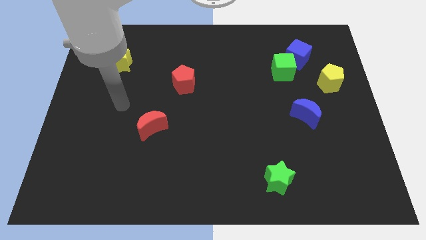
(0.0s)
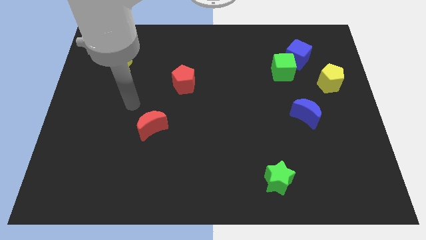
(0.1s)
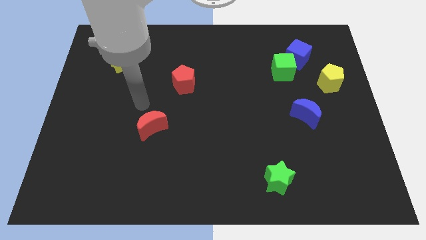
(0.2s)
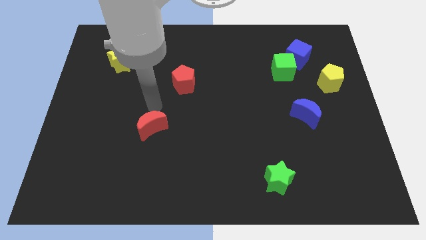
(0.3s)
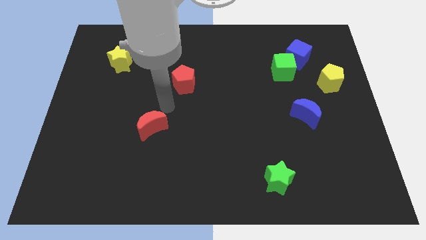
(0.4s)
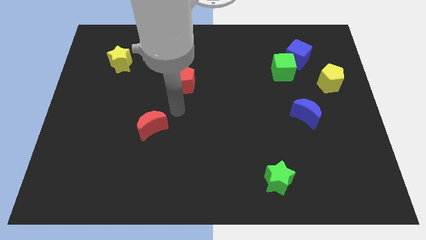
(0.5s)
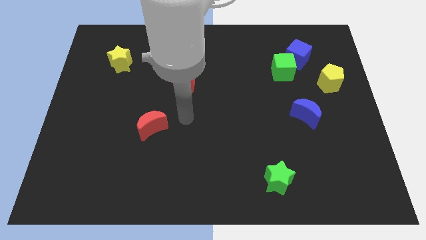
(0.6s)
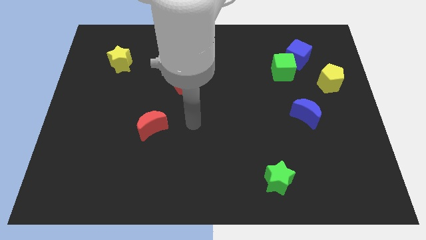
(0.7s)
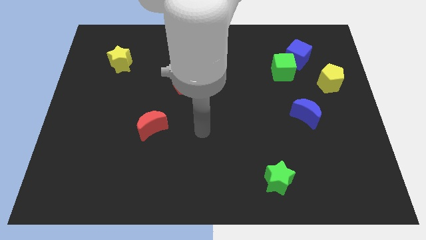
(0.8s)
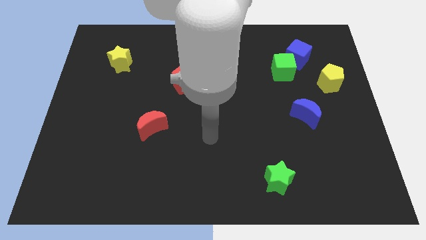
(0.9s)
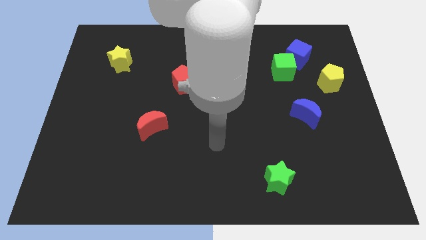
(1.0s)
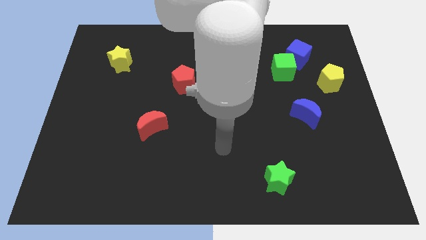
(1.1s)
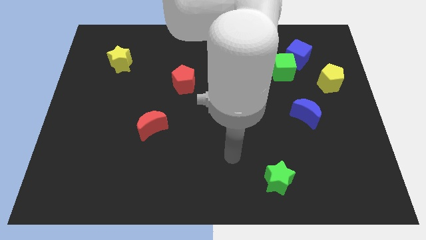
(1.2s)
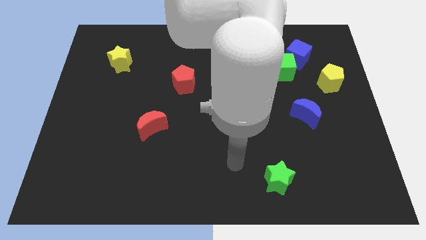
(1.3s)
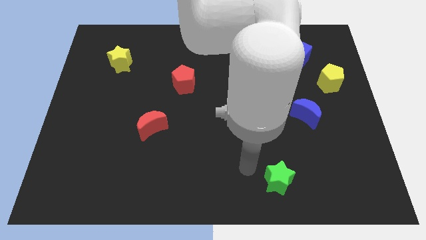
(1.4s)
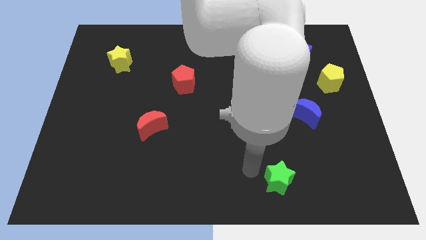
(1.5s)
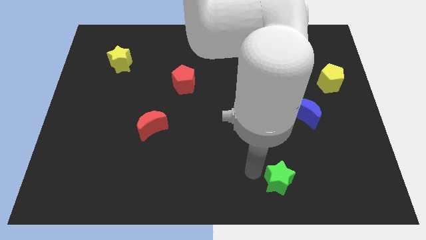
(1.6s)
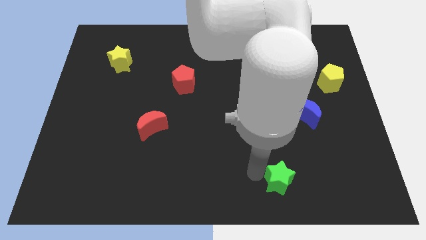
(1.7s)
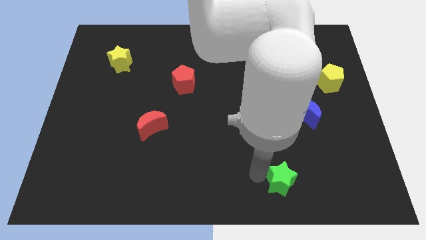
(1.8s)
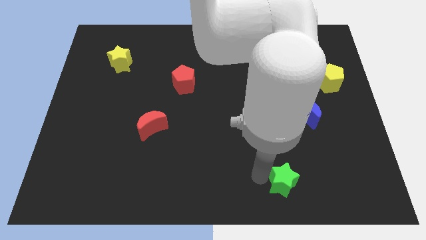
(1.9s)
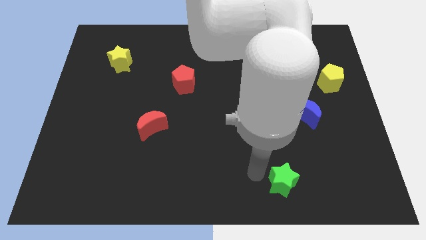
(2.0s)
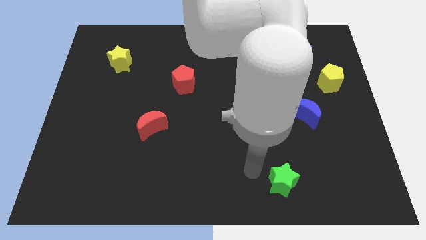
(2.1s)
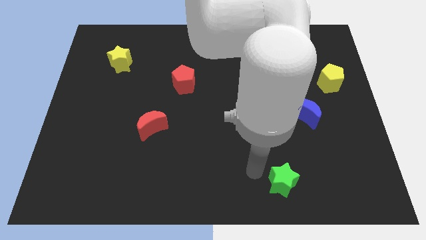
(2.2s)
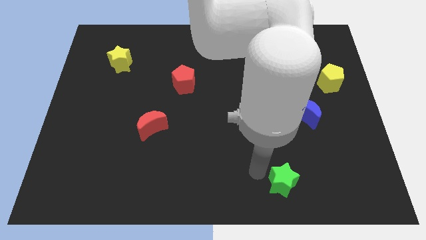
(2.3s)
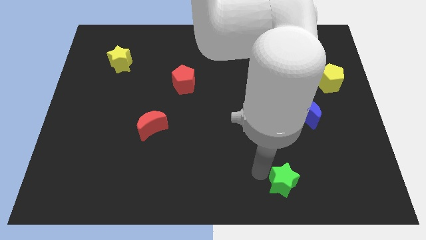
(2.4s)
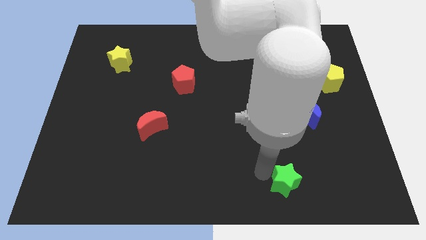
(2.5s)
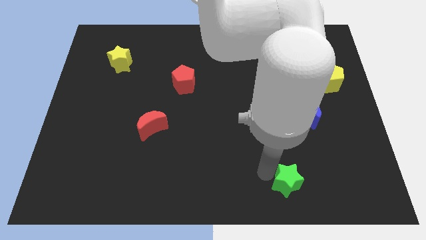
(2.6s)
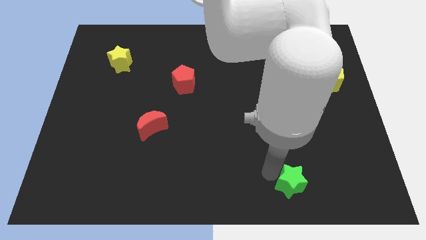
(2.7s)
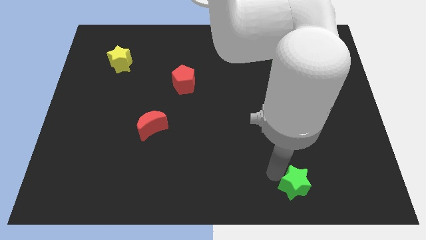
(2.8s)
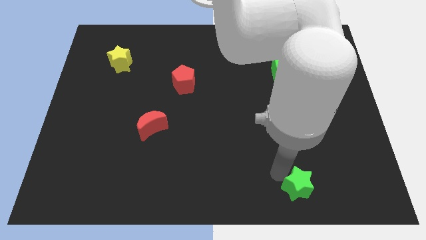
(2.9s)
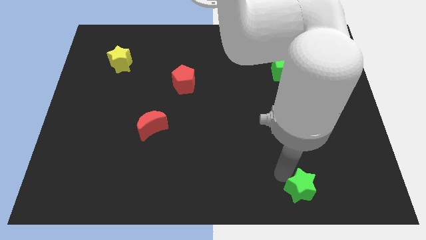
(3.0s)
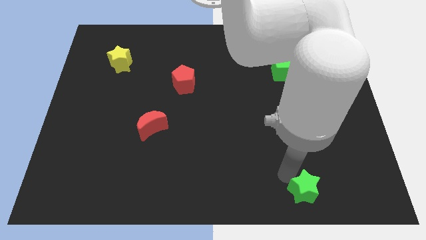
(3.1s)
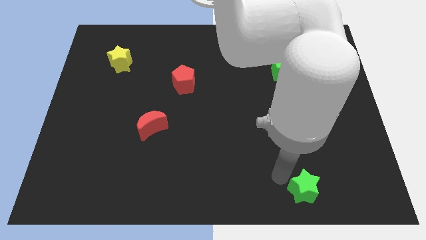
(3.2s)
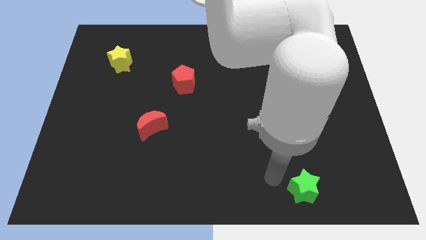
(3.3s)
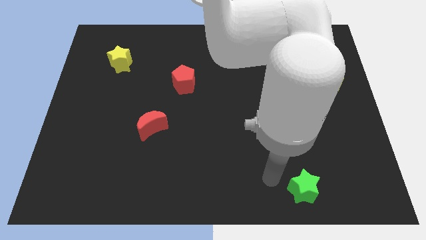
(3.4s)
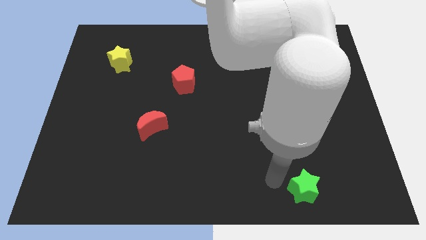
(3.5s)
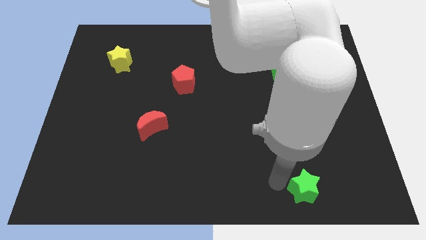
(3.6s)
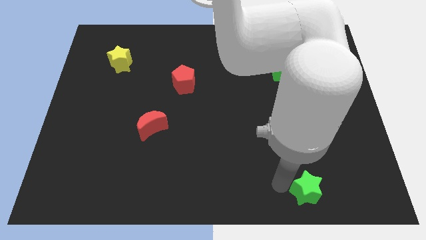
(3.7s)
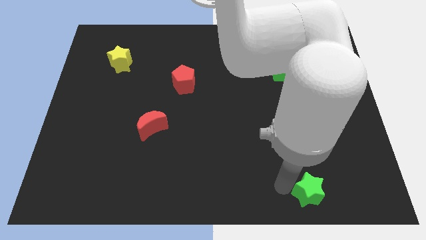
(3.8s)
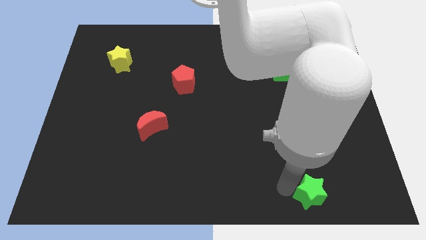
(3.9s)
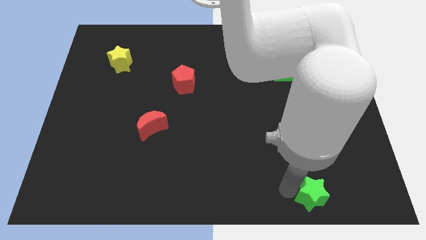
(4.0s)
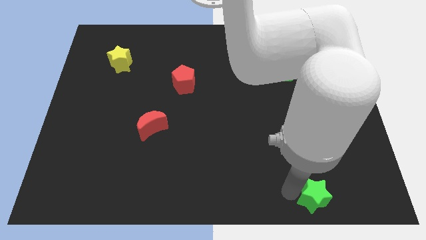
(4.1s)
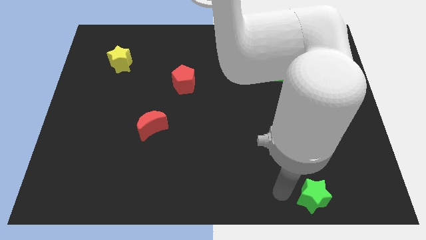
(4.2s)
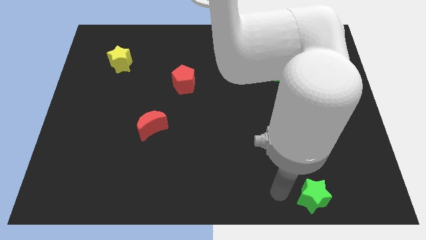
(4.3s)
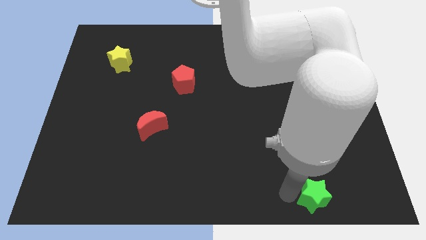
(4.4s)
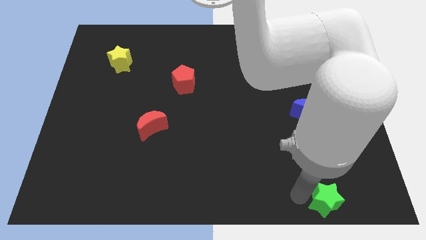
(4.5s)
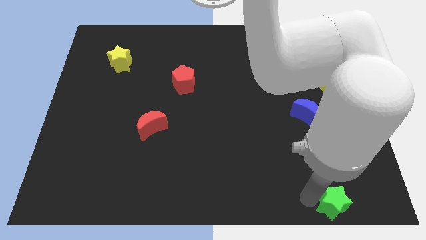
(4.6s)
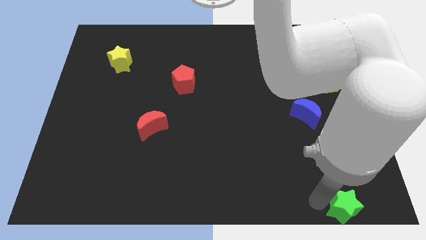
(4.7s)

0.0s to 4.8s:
push the green star to the bottom right of the board

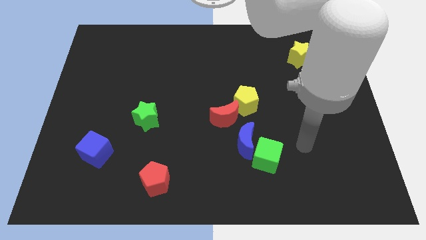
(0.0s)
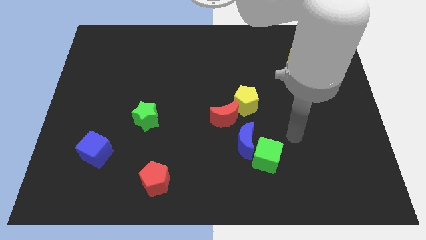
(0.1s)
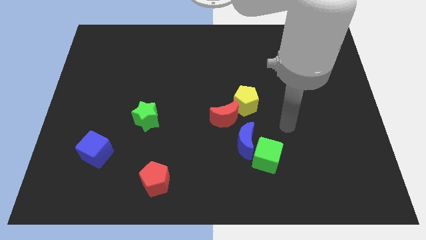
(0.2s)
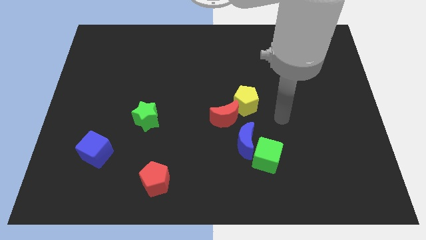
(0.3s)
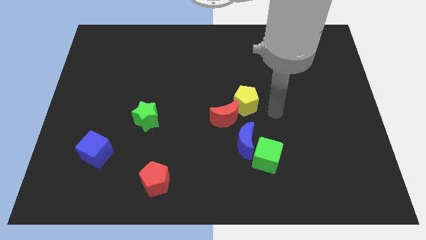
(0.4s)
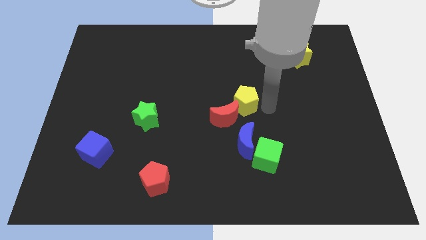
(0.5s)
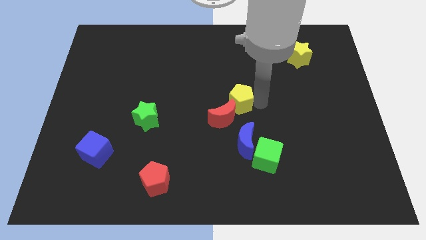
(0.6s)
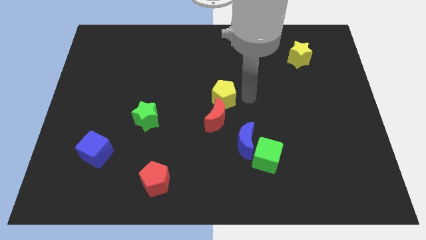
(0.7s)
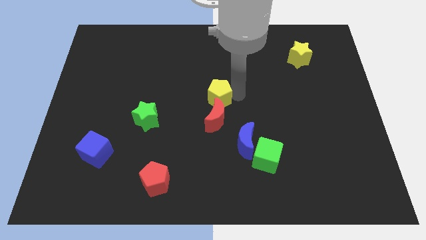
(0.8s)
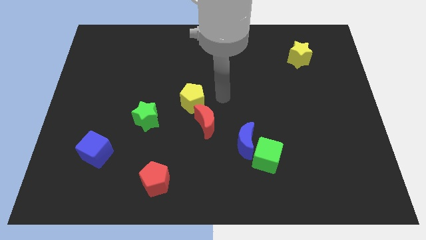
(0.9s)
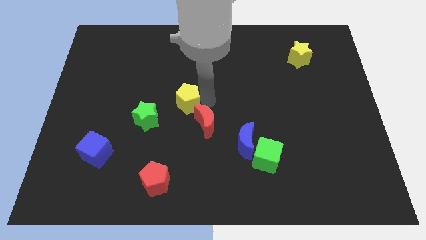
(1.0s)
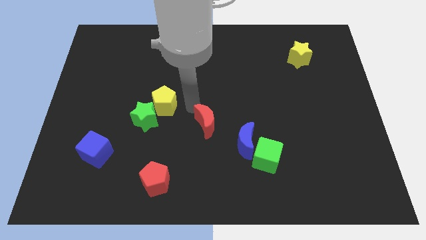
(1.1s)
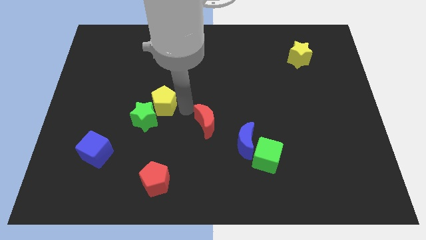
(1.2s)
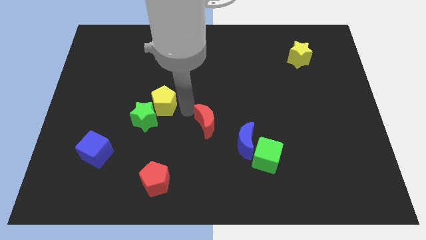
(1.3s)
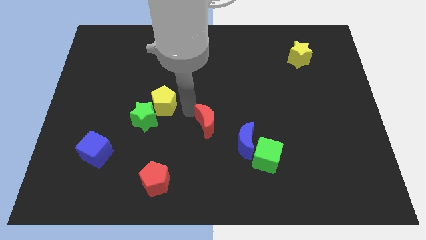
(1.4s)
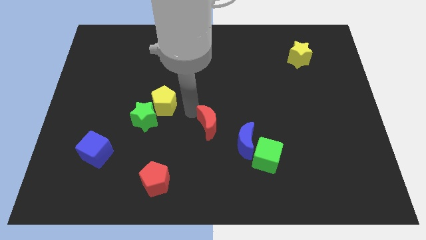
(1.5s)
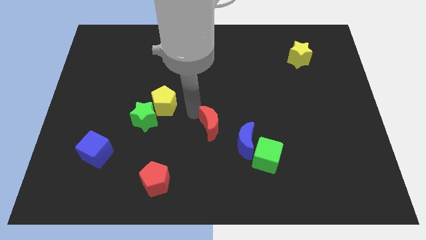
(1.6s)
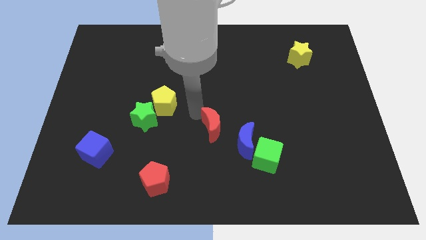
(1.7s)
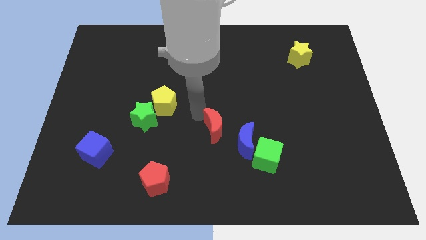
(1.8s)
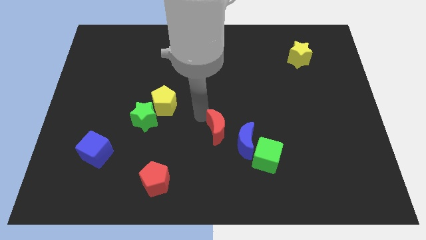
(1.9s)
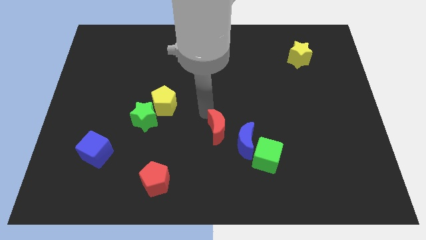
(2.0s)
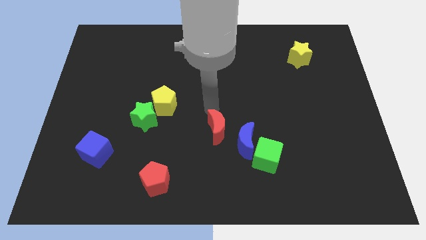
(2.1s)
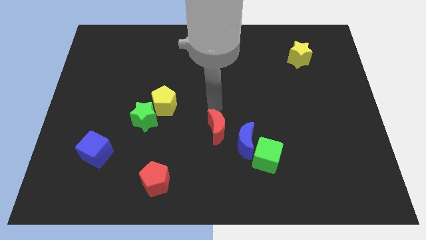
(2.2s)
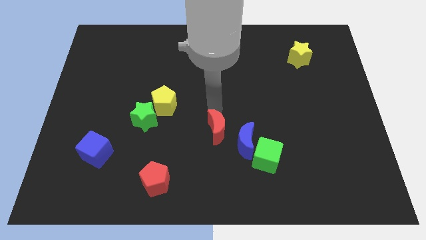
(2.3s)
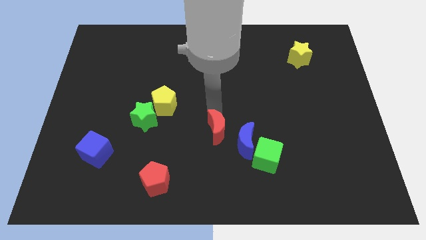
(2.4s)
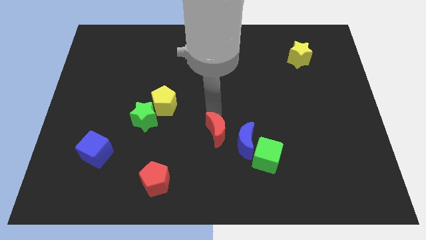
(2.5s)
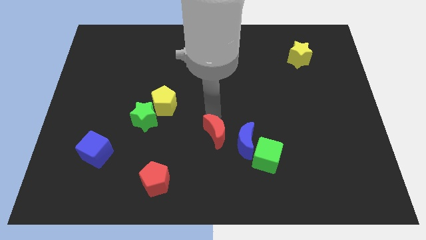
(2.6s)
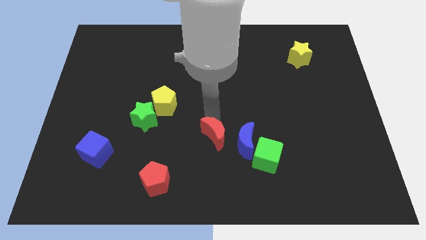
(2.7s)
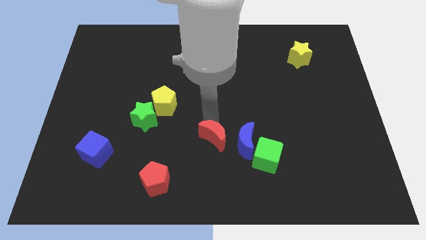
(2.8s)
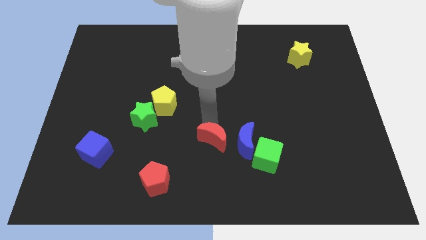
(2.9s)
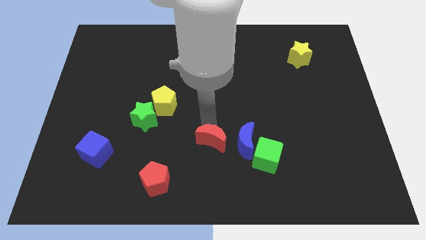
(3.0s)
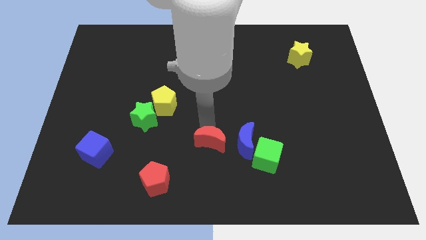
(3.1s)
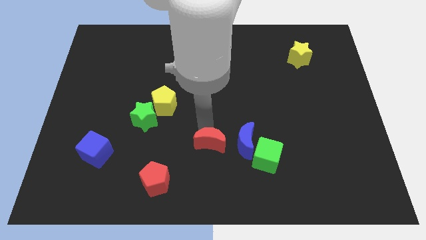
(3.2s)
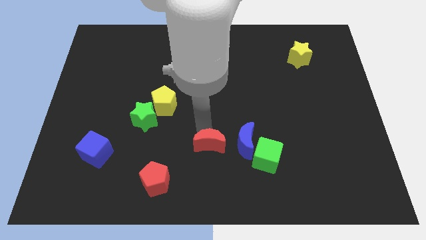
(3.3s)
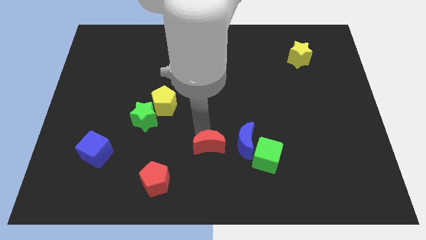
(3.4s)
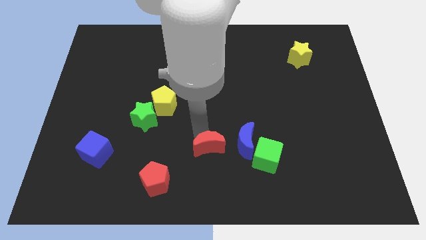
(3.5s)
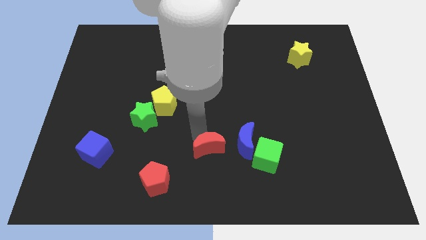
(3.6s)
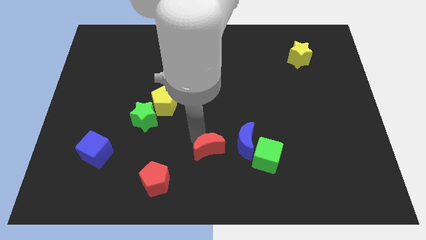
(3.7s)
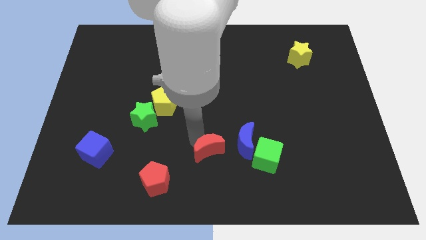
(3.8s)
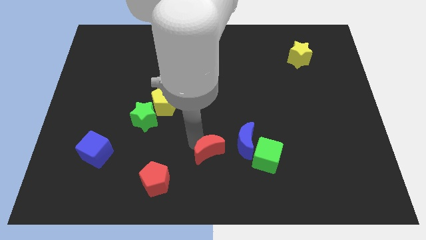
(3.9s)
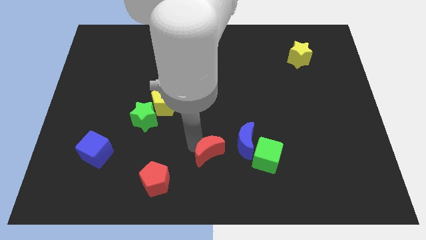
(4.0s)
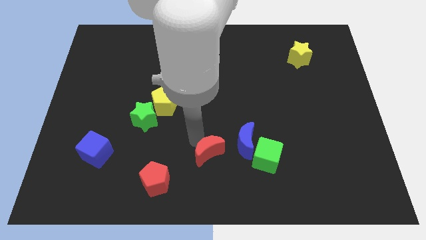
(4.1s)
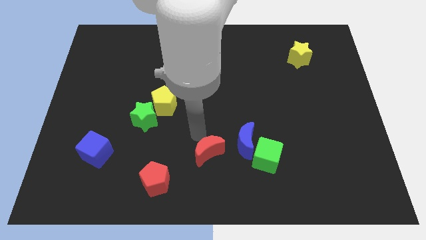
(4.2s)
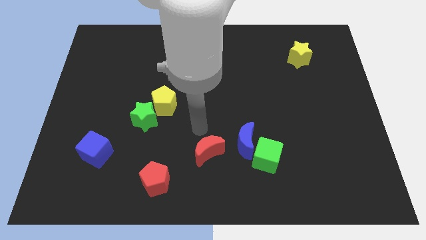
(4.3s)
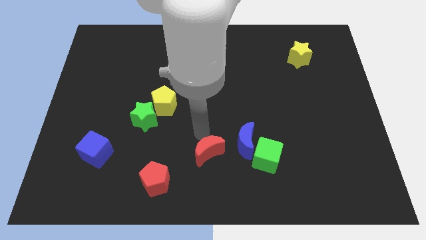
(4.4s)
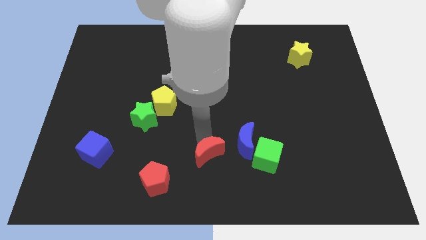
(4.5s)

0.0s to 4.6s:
push the red moon to the bottom side
